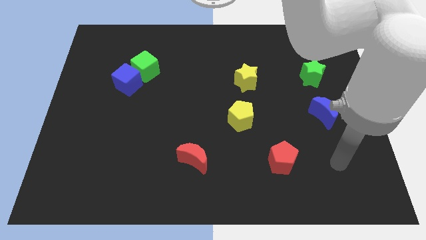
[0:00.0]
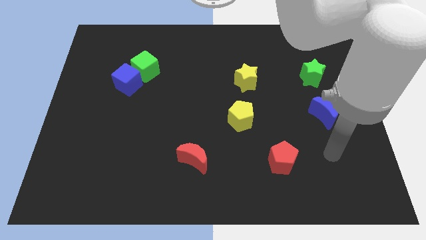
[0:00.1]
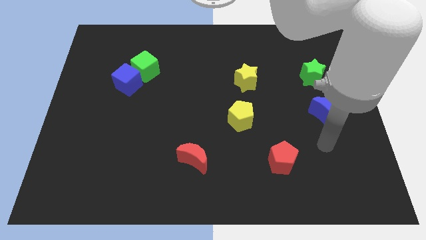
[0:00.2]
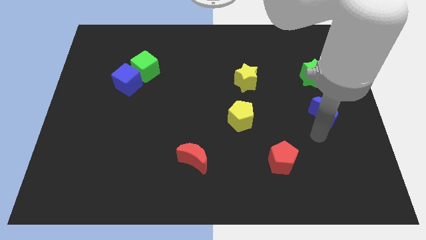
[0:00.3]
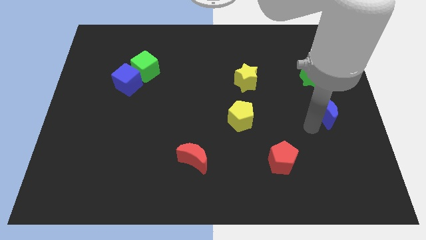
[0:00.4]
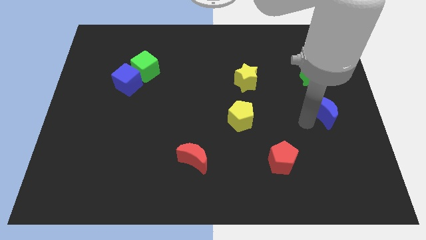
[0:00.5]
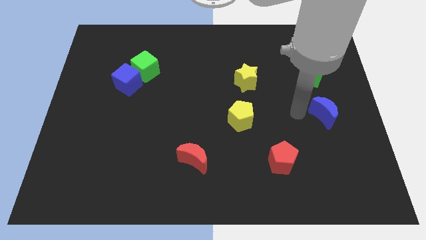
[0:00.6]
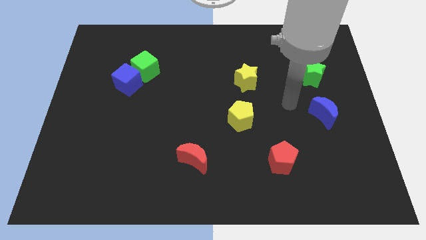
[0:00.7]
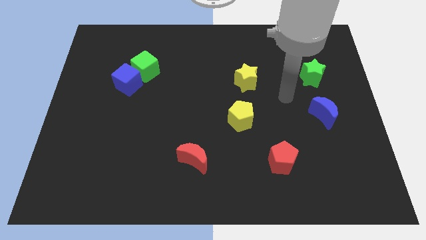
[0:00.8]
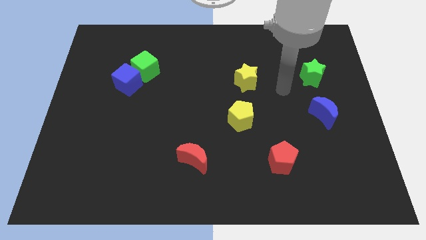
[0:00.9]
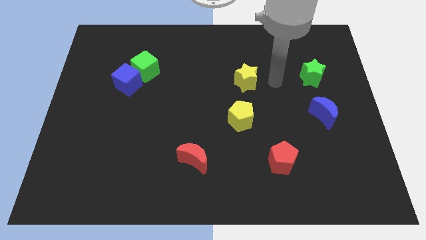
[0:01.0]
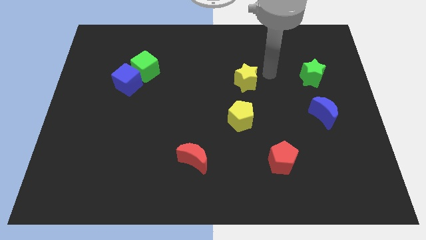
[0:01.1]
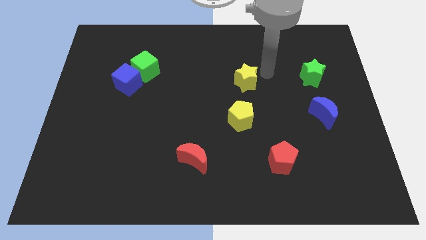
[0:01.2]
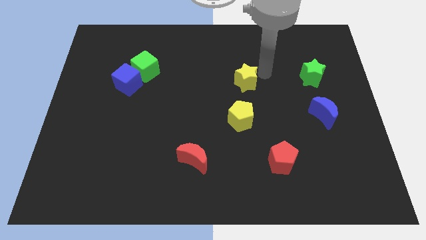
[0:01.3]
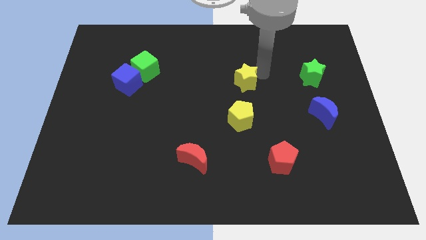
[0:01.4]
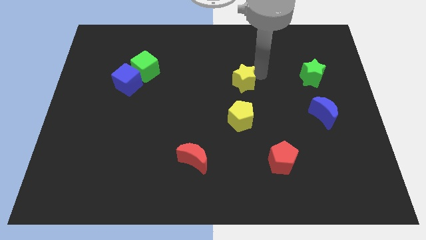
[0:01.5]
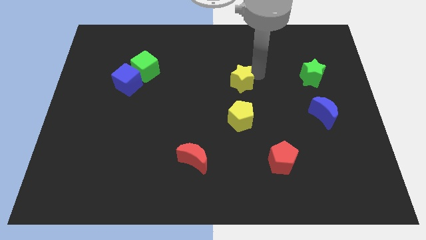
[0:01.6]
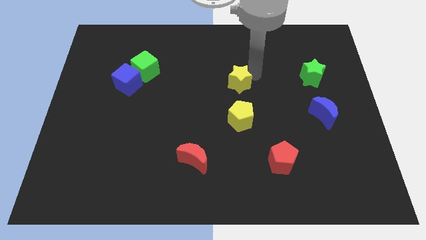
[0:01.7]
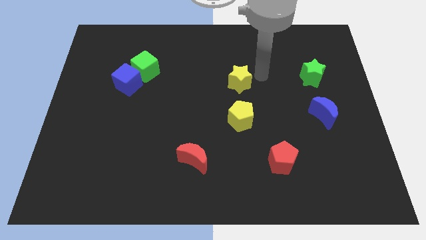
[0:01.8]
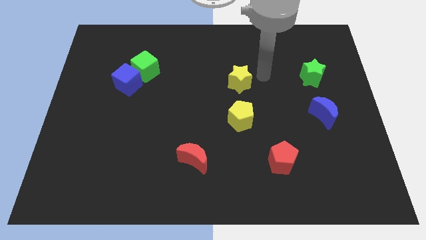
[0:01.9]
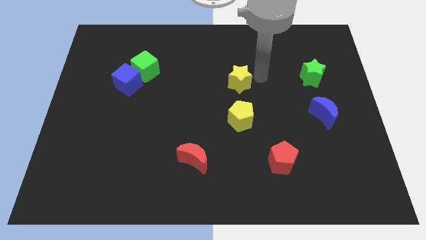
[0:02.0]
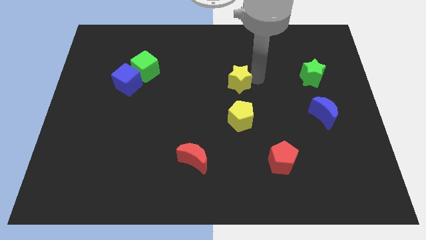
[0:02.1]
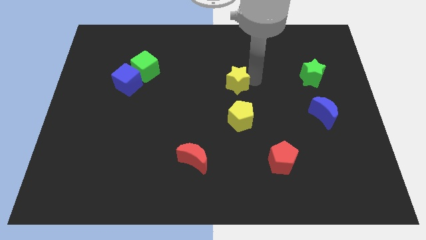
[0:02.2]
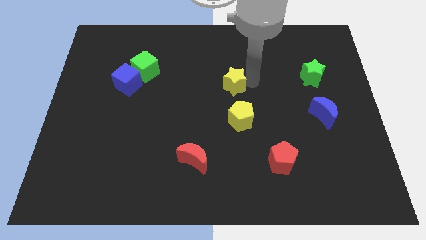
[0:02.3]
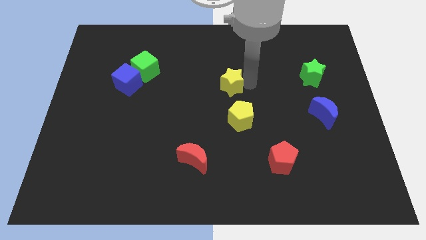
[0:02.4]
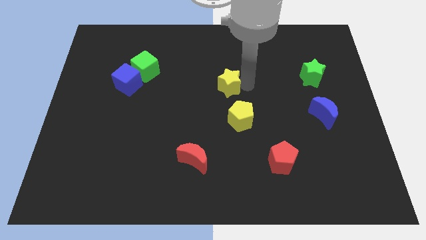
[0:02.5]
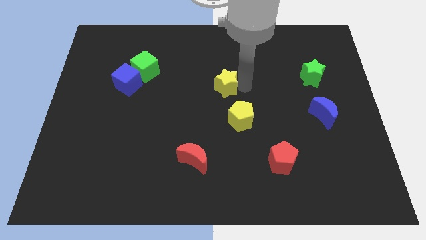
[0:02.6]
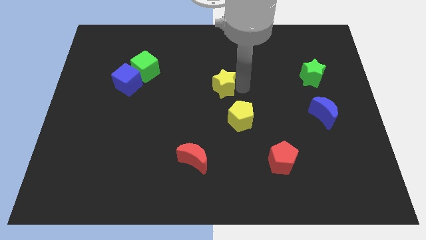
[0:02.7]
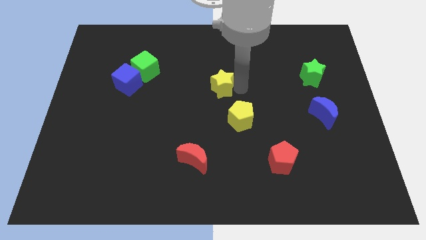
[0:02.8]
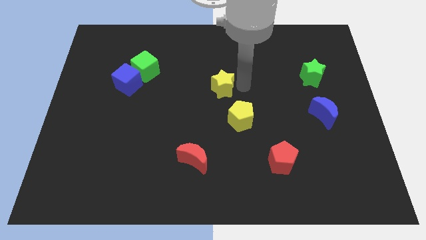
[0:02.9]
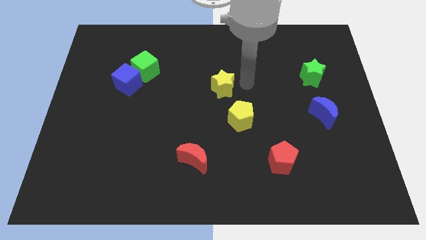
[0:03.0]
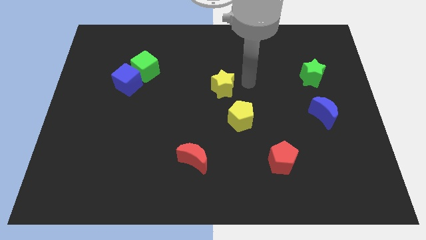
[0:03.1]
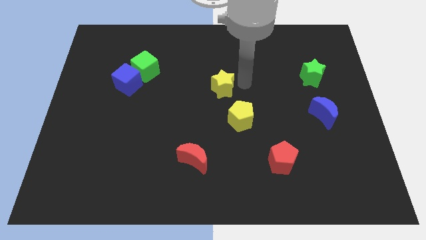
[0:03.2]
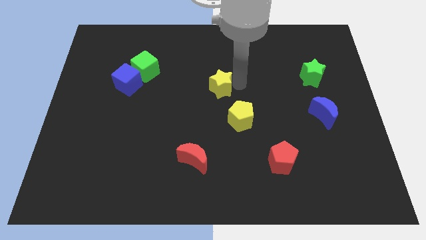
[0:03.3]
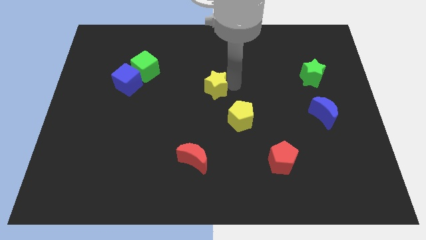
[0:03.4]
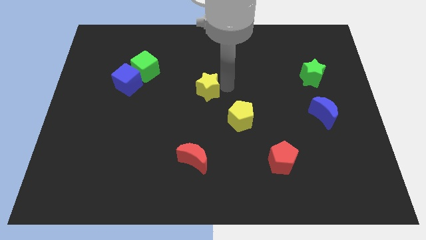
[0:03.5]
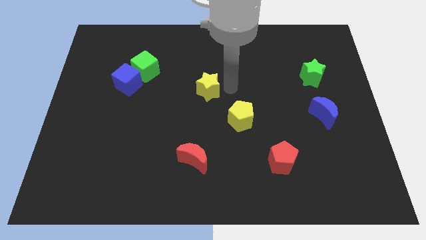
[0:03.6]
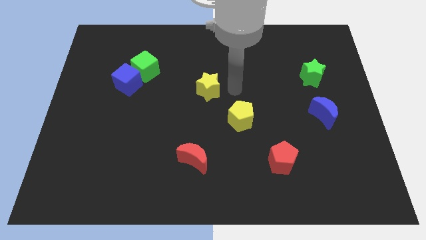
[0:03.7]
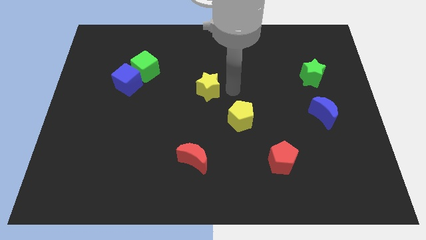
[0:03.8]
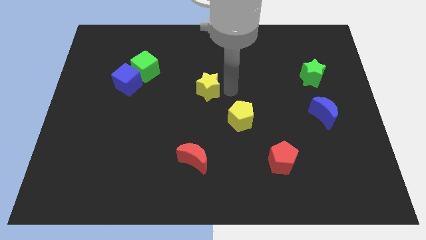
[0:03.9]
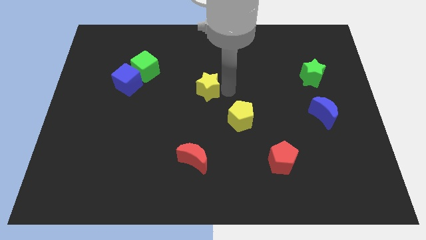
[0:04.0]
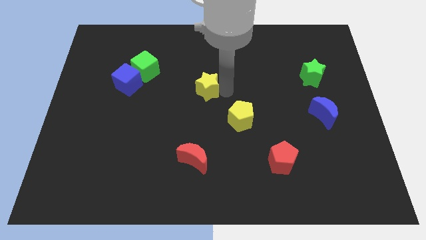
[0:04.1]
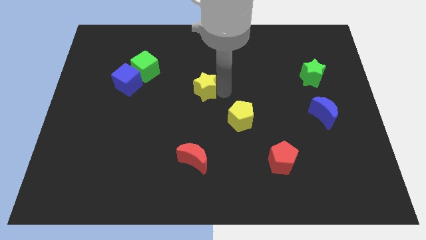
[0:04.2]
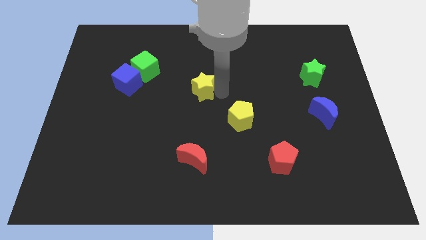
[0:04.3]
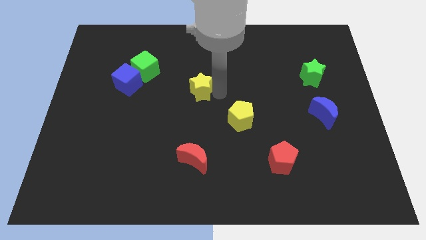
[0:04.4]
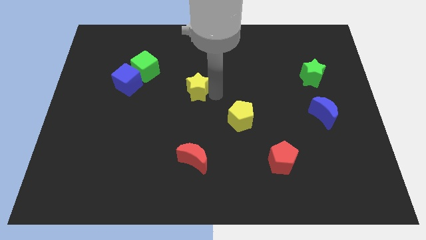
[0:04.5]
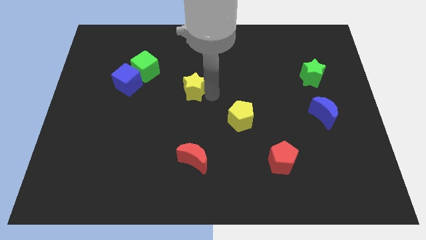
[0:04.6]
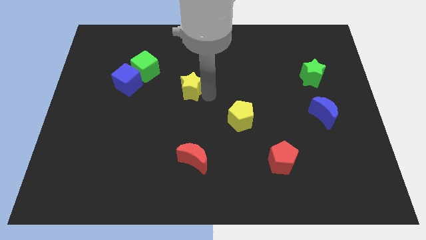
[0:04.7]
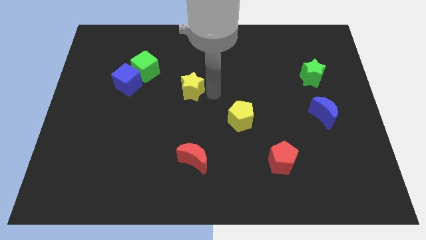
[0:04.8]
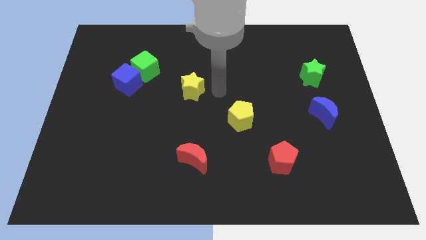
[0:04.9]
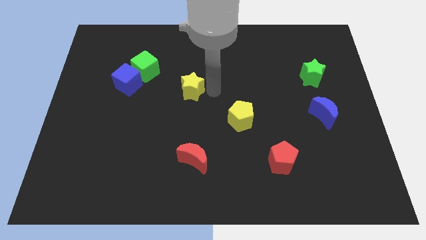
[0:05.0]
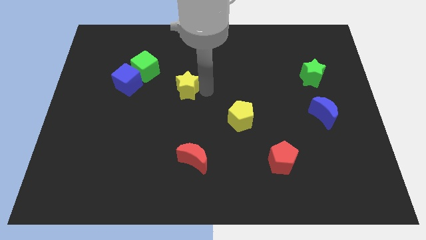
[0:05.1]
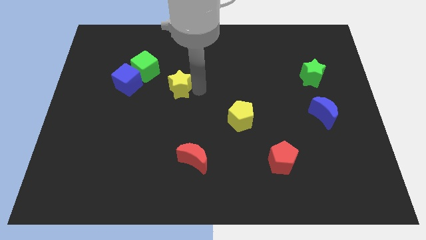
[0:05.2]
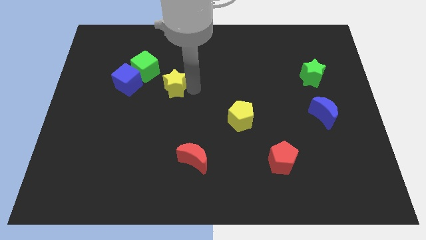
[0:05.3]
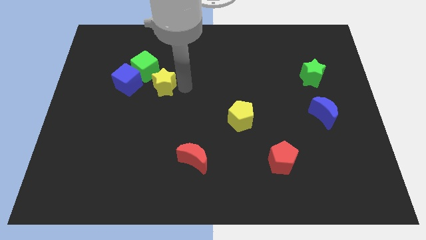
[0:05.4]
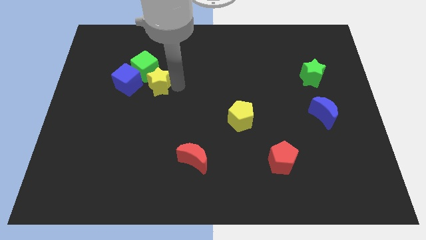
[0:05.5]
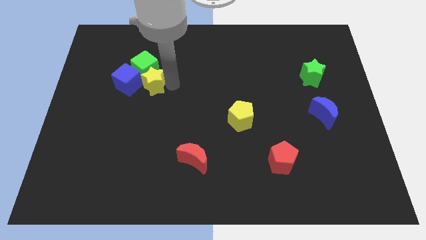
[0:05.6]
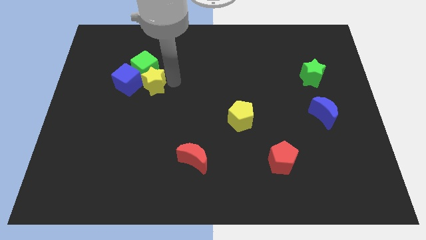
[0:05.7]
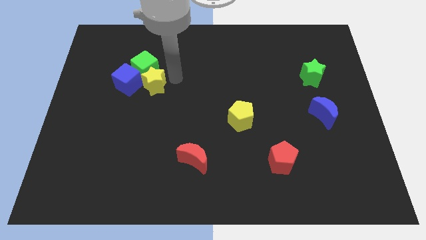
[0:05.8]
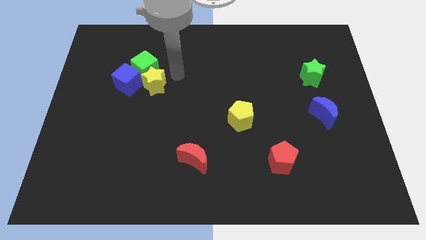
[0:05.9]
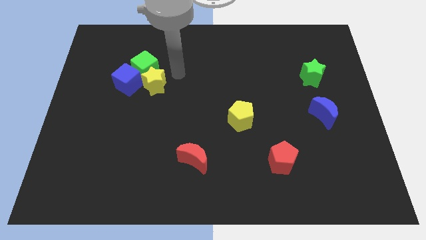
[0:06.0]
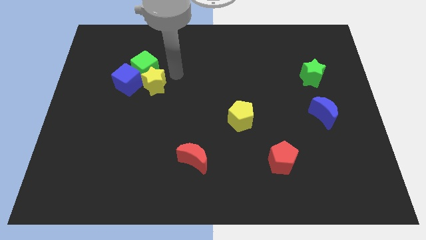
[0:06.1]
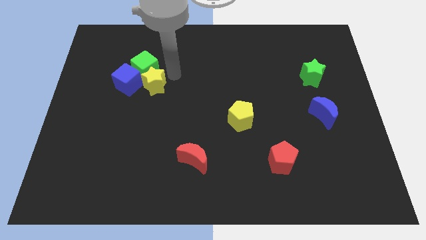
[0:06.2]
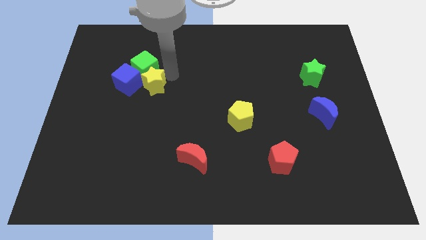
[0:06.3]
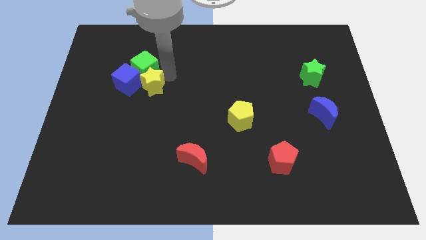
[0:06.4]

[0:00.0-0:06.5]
slide the yellow star next to the blue cube
